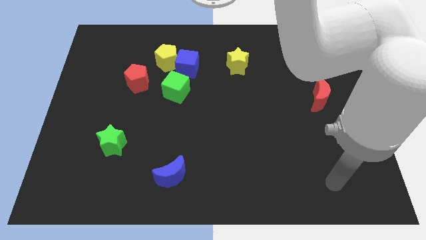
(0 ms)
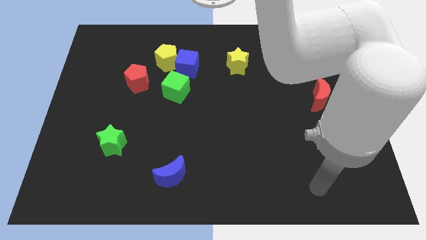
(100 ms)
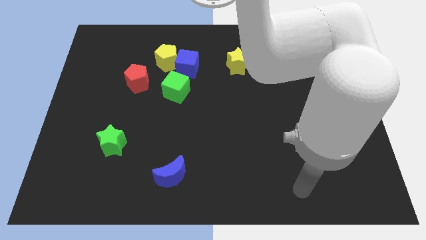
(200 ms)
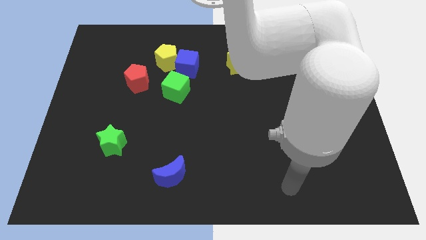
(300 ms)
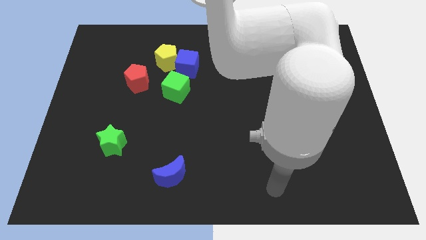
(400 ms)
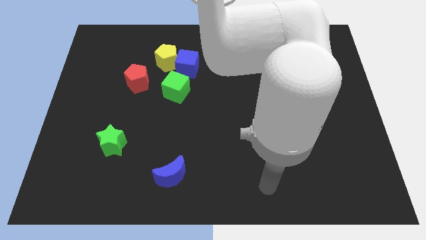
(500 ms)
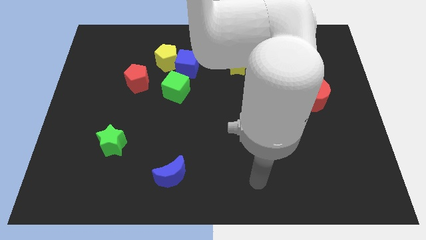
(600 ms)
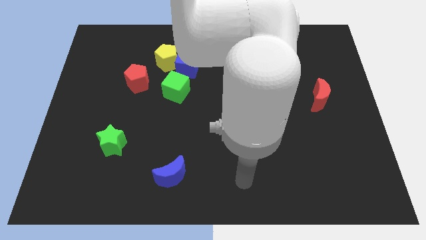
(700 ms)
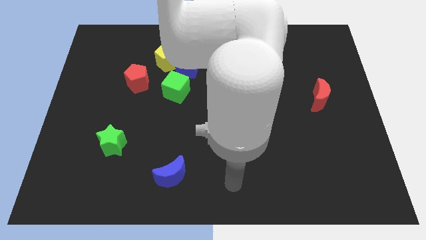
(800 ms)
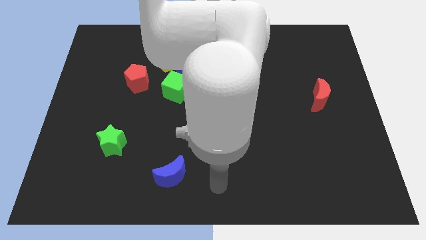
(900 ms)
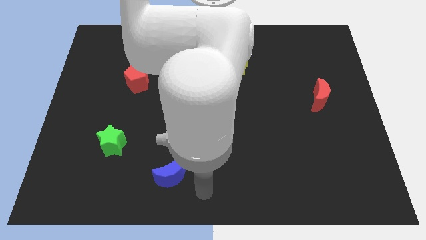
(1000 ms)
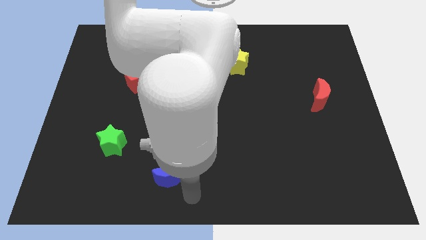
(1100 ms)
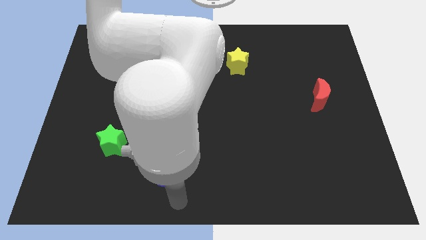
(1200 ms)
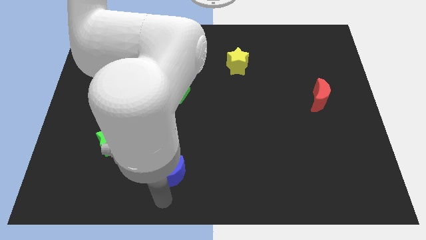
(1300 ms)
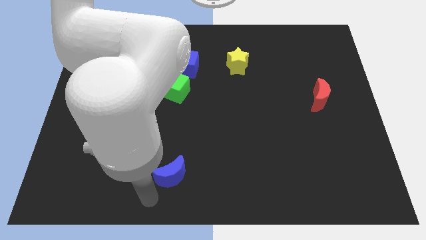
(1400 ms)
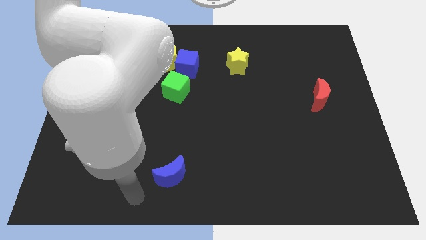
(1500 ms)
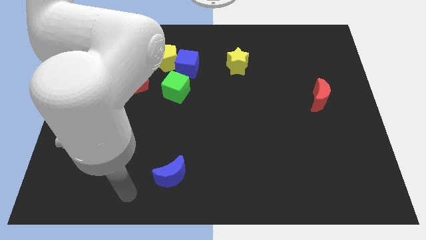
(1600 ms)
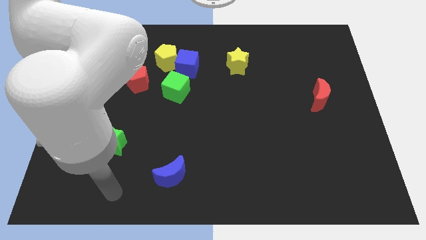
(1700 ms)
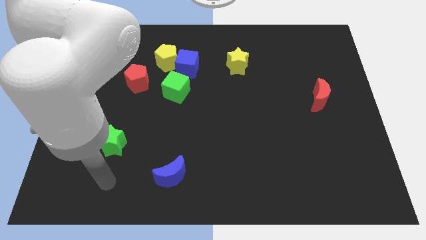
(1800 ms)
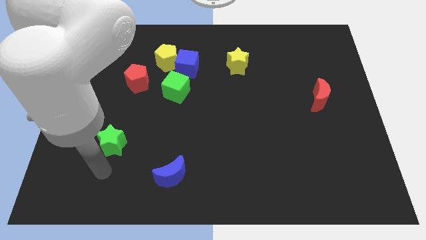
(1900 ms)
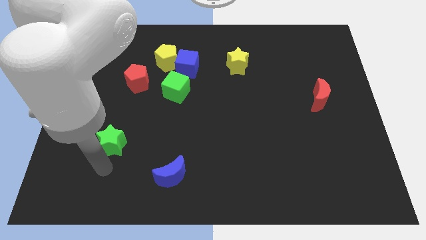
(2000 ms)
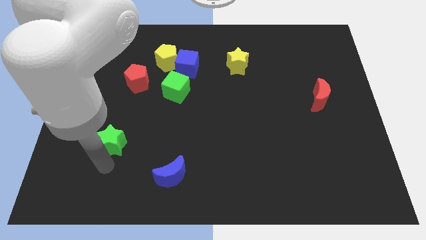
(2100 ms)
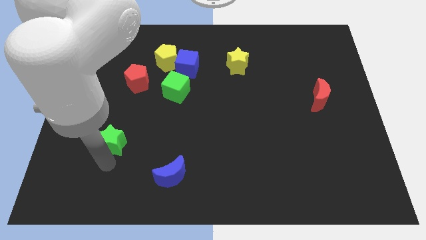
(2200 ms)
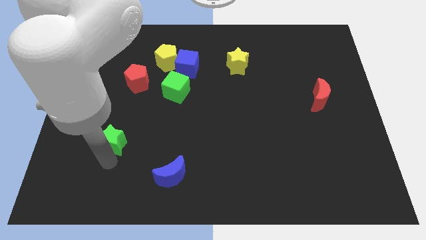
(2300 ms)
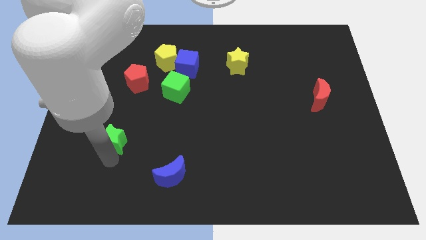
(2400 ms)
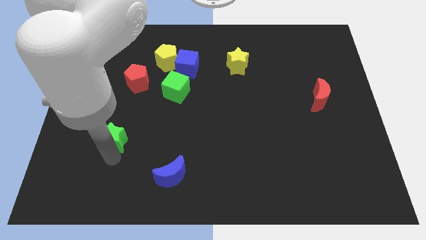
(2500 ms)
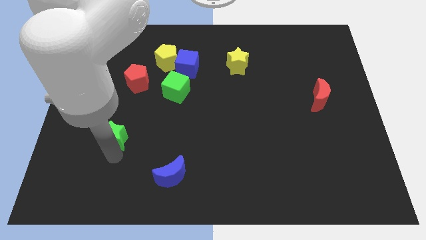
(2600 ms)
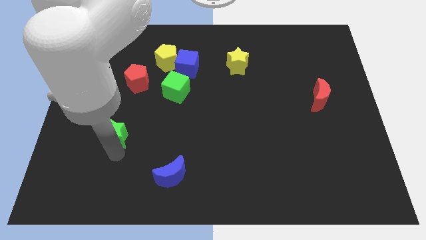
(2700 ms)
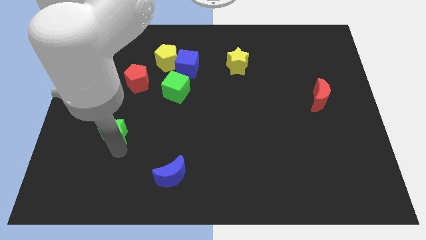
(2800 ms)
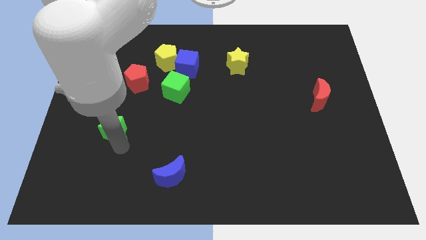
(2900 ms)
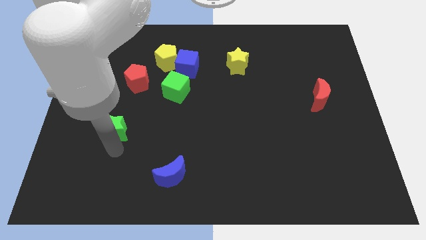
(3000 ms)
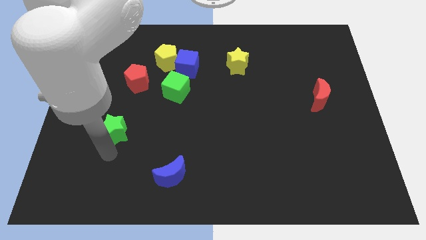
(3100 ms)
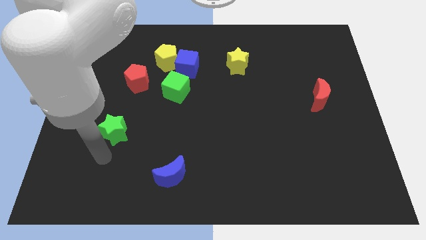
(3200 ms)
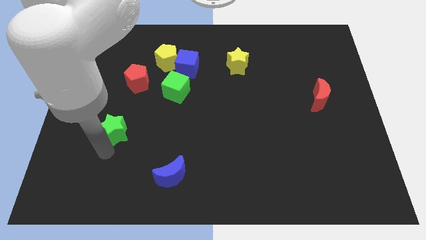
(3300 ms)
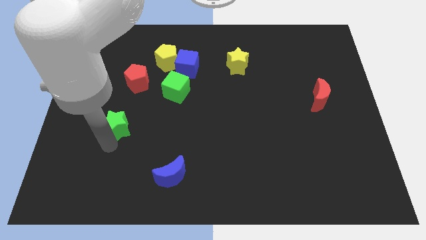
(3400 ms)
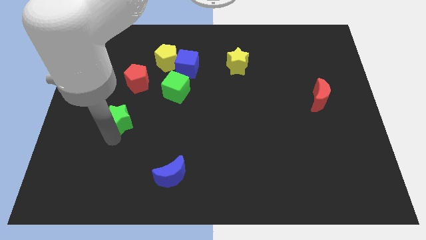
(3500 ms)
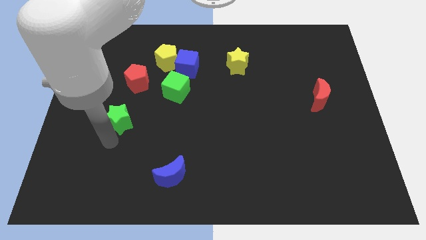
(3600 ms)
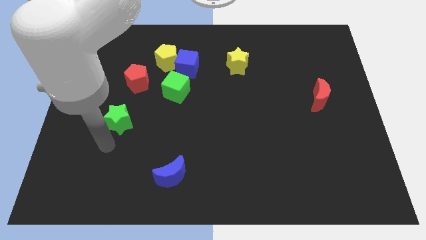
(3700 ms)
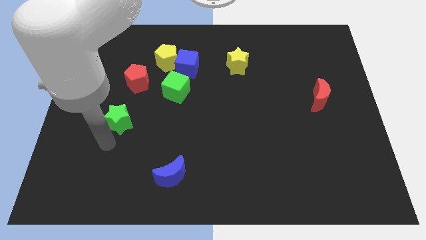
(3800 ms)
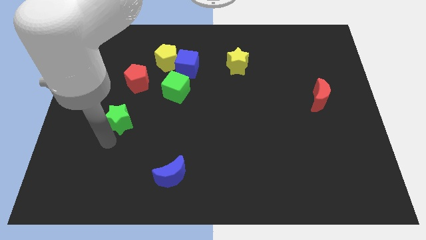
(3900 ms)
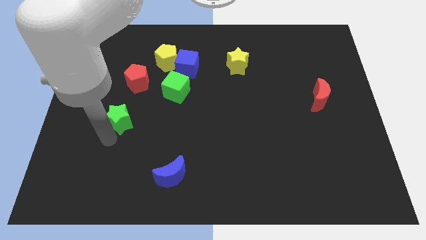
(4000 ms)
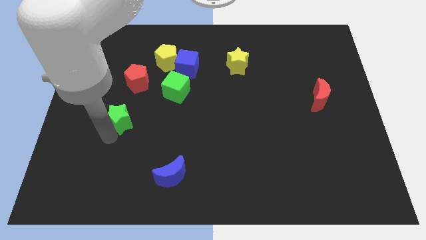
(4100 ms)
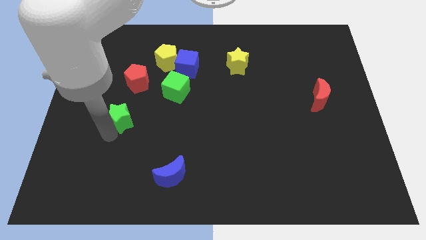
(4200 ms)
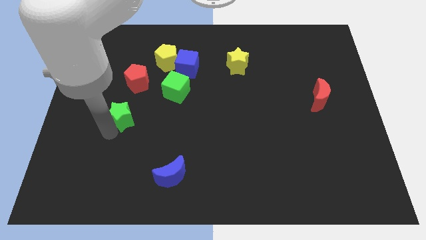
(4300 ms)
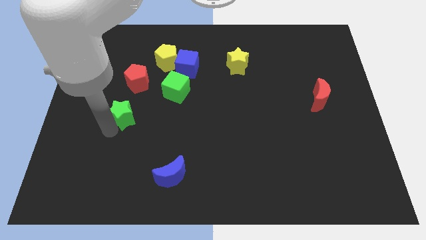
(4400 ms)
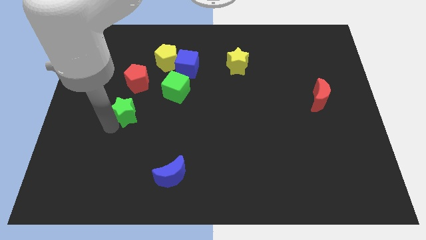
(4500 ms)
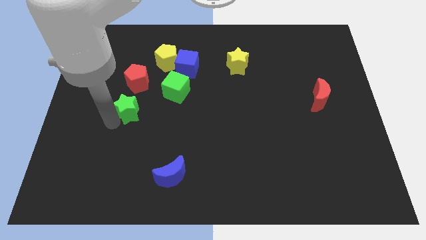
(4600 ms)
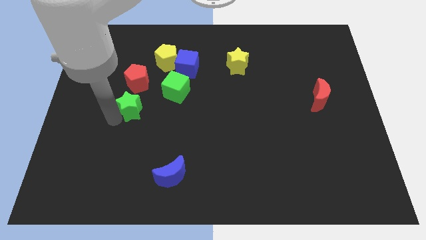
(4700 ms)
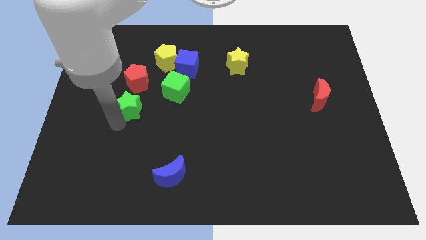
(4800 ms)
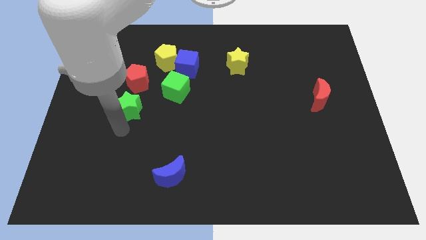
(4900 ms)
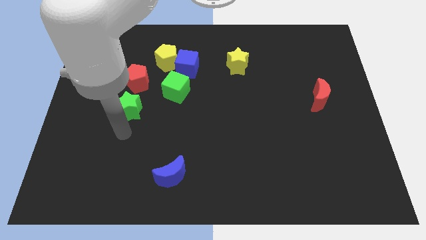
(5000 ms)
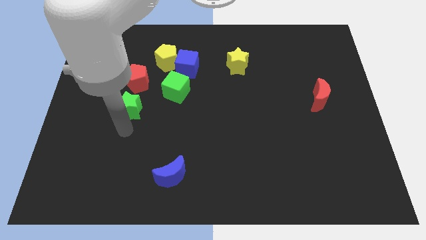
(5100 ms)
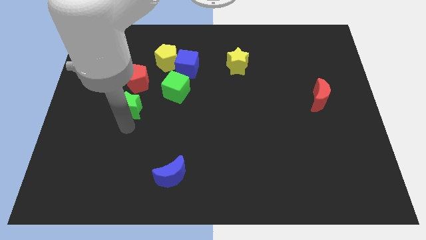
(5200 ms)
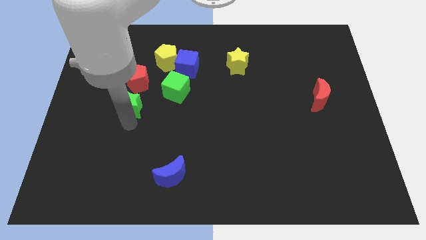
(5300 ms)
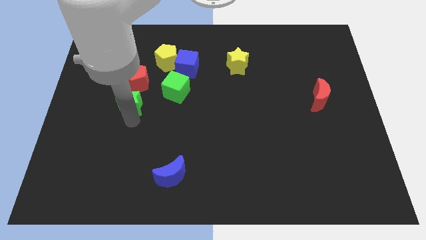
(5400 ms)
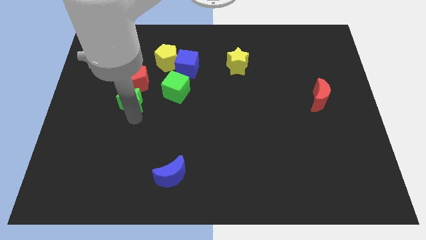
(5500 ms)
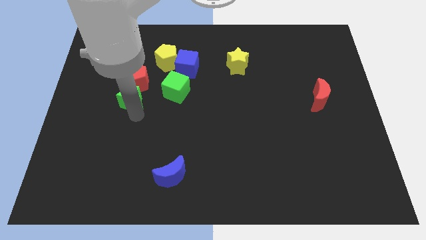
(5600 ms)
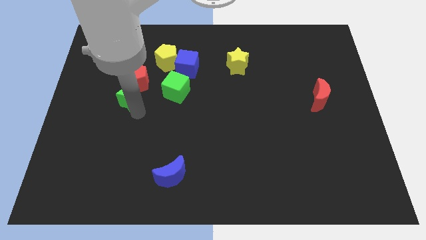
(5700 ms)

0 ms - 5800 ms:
move the green star close to the red pentagon

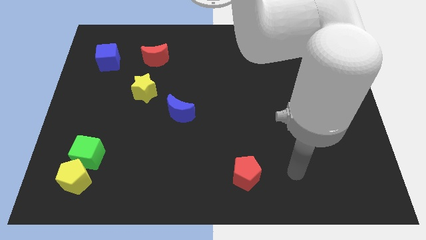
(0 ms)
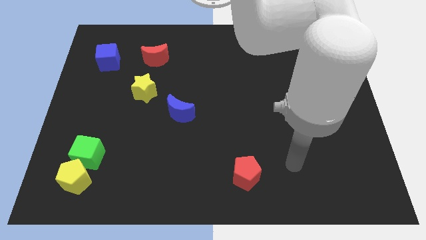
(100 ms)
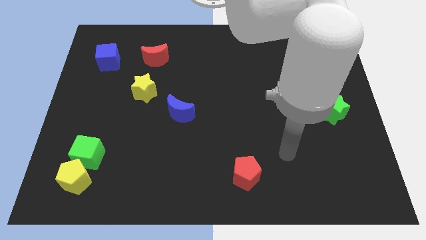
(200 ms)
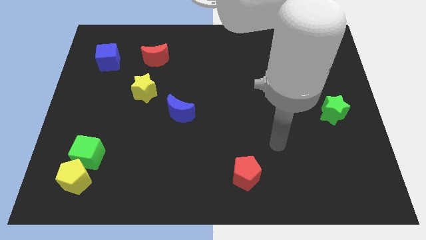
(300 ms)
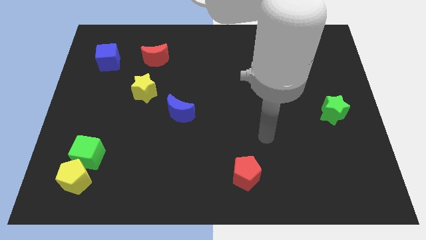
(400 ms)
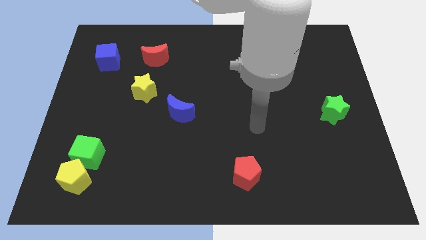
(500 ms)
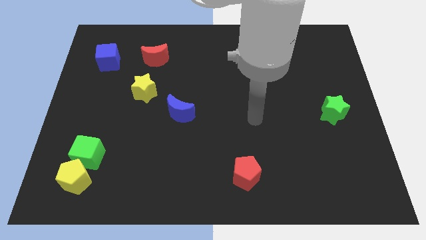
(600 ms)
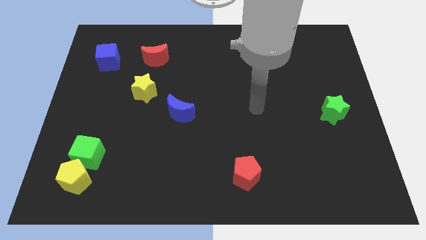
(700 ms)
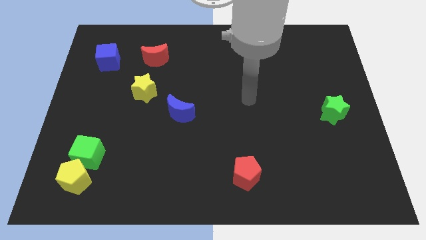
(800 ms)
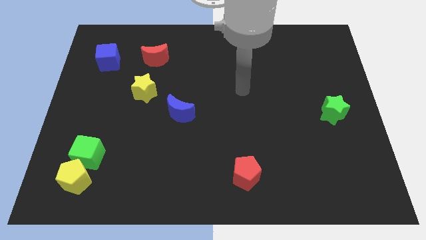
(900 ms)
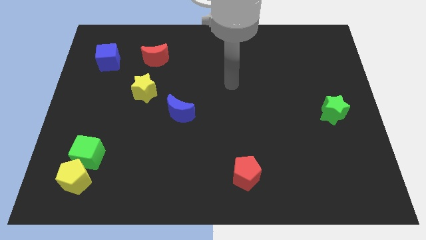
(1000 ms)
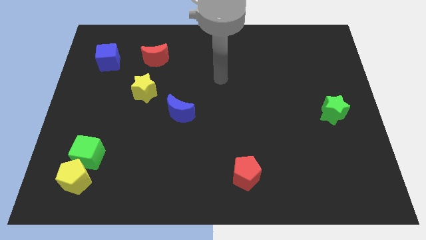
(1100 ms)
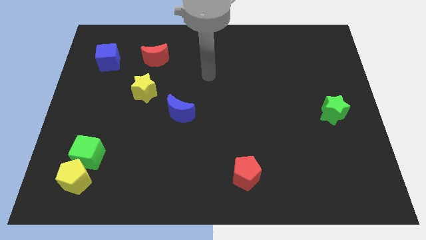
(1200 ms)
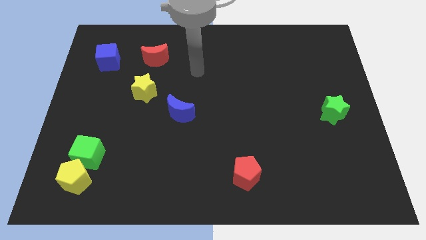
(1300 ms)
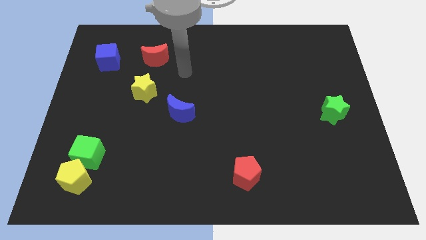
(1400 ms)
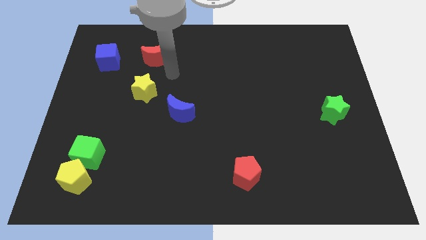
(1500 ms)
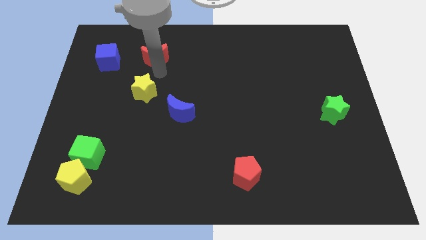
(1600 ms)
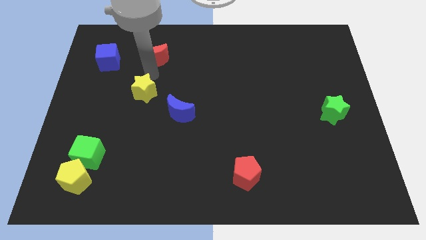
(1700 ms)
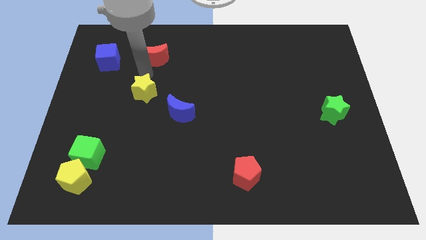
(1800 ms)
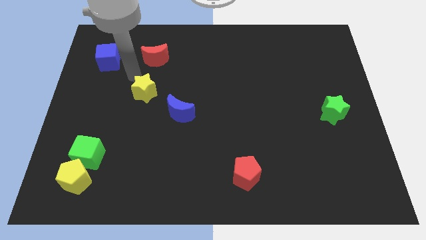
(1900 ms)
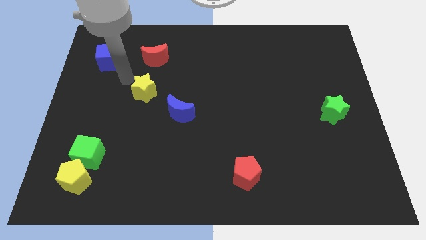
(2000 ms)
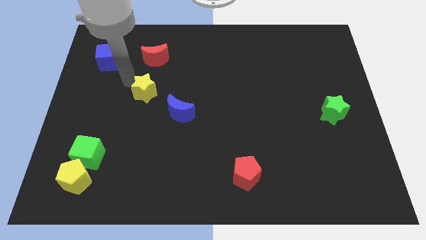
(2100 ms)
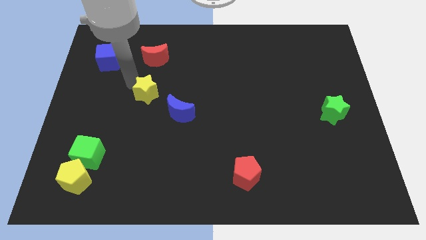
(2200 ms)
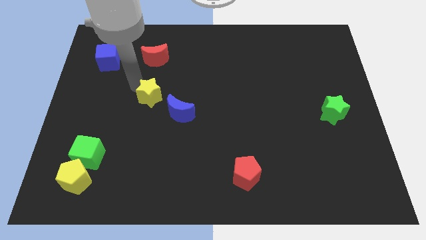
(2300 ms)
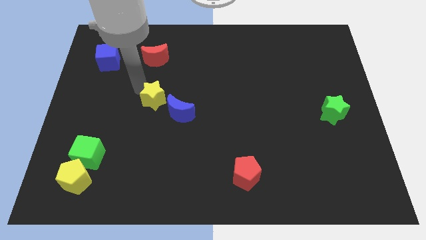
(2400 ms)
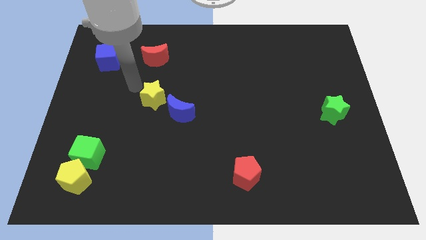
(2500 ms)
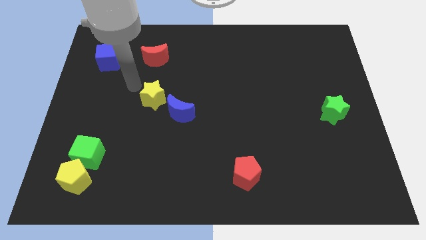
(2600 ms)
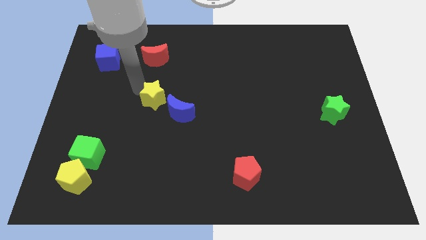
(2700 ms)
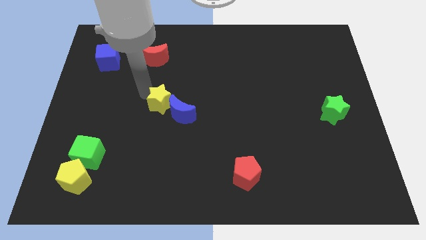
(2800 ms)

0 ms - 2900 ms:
put the yellow star towards the blue moon
